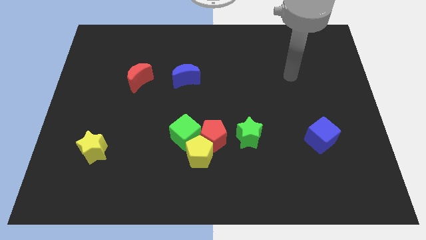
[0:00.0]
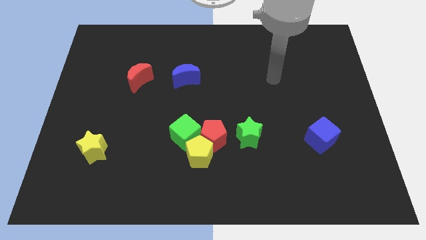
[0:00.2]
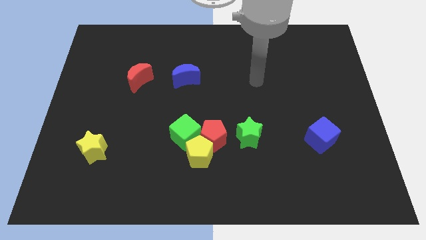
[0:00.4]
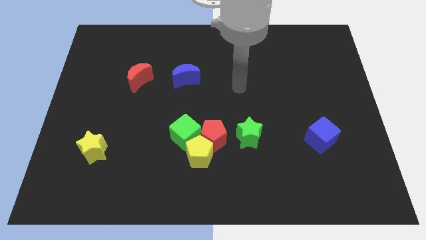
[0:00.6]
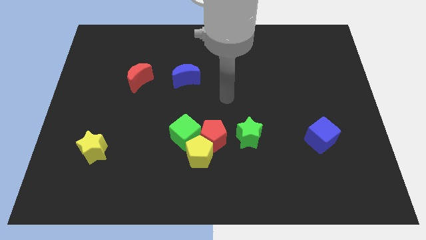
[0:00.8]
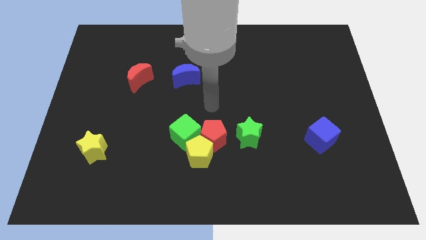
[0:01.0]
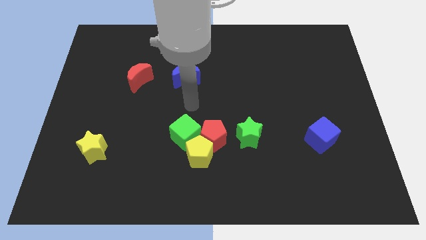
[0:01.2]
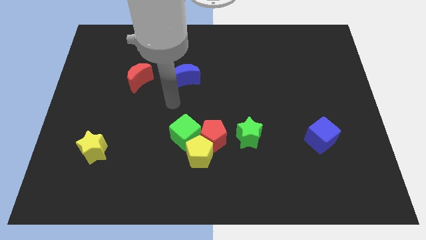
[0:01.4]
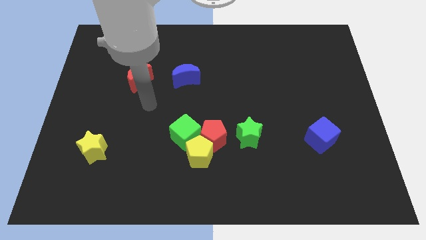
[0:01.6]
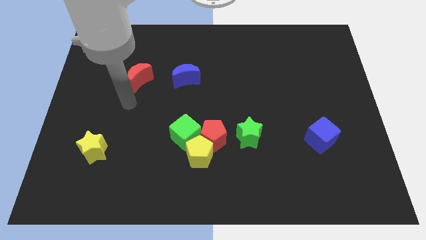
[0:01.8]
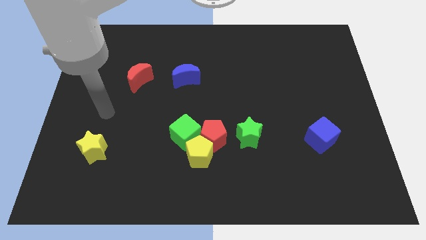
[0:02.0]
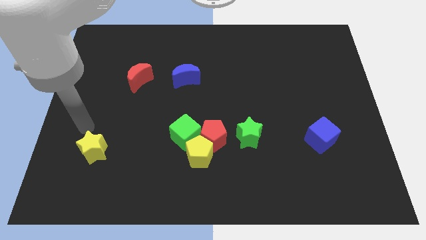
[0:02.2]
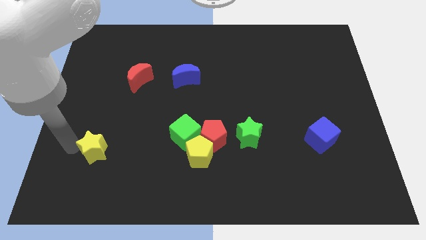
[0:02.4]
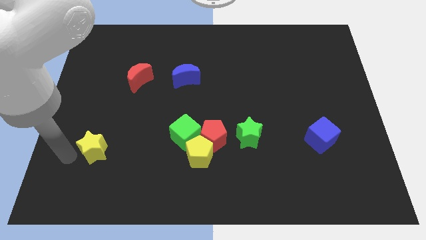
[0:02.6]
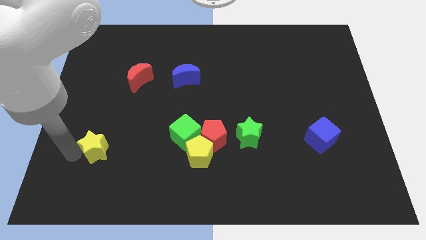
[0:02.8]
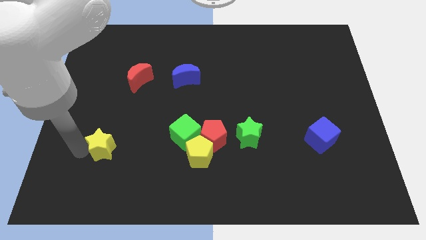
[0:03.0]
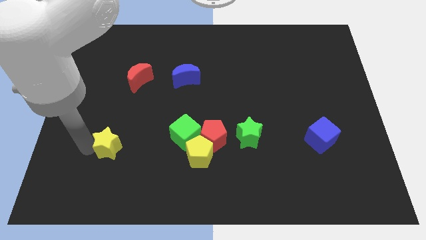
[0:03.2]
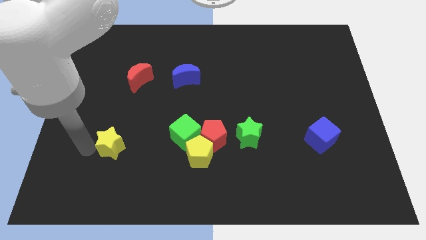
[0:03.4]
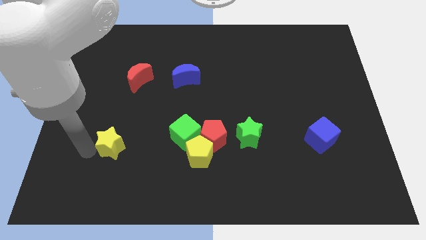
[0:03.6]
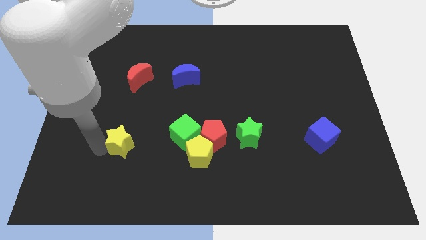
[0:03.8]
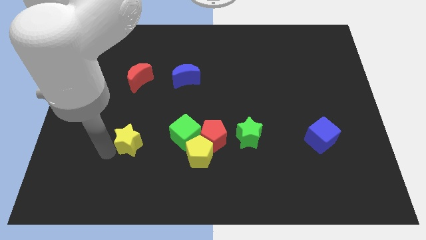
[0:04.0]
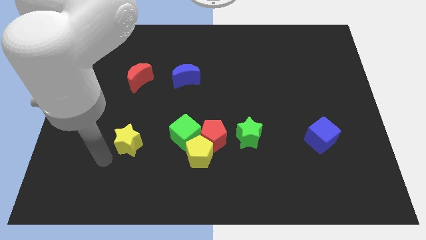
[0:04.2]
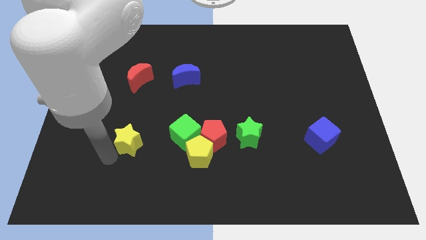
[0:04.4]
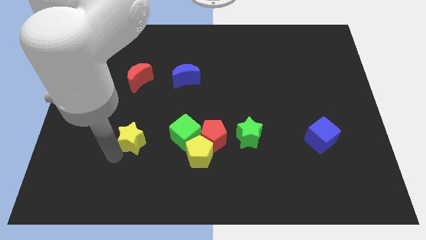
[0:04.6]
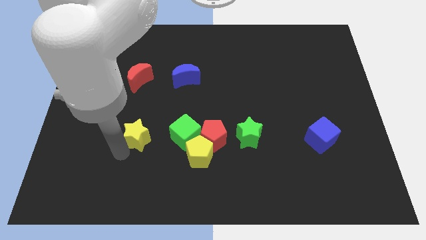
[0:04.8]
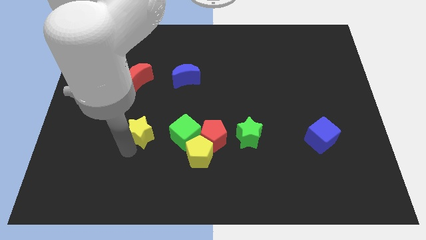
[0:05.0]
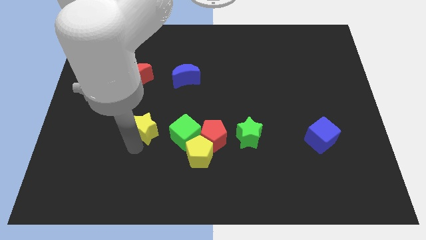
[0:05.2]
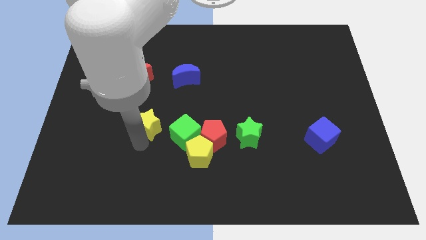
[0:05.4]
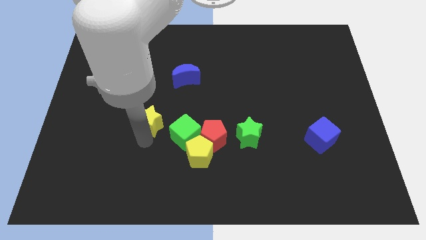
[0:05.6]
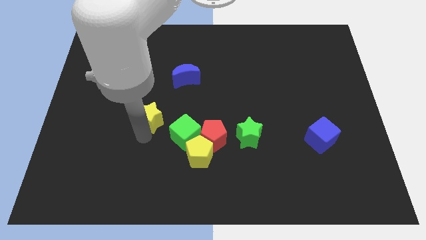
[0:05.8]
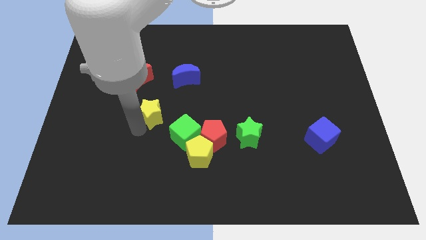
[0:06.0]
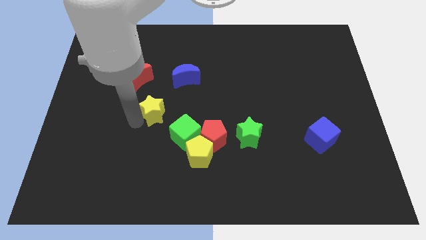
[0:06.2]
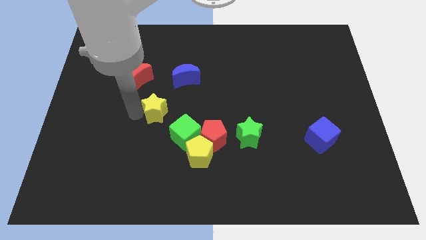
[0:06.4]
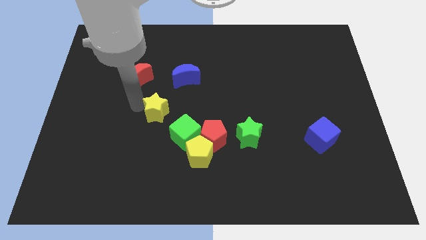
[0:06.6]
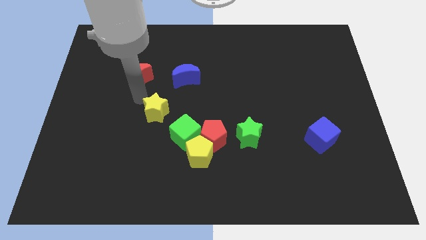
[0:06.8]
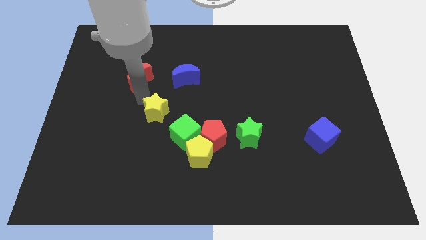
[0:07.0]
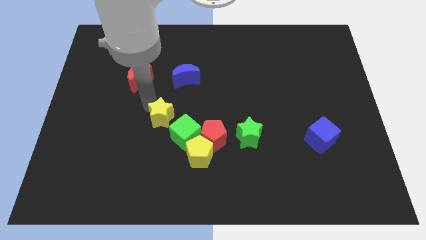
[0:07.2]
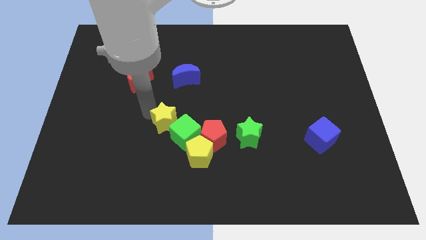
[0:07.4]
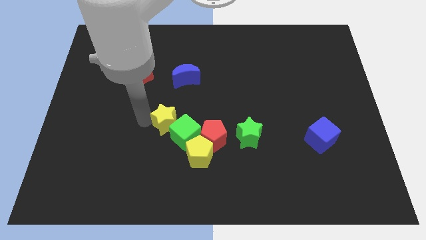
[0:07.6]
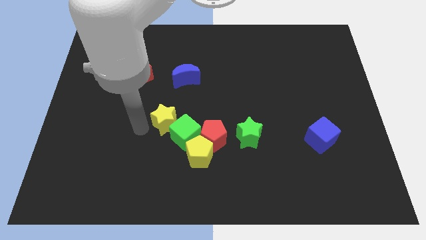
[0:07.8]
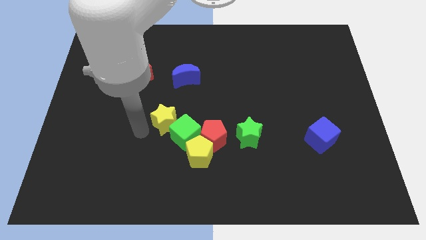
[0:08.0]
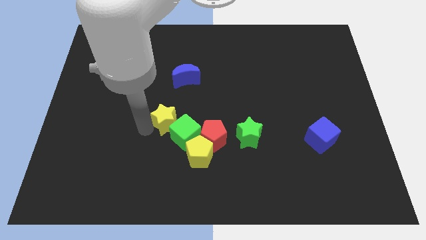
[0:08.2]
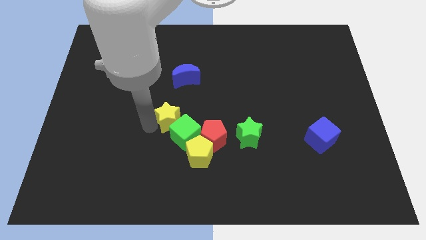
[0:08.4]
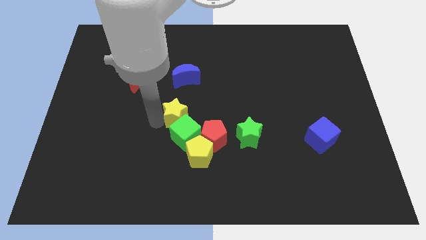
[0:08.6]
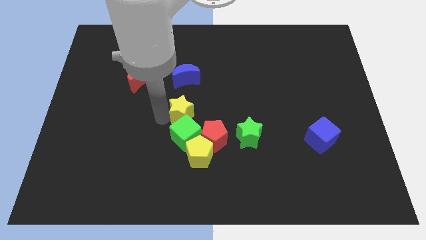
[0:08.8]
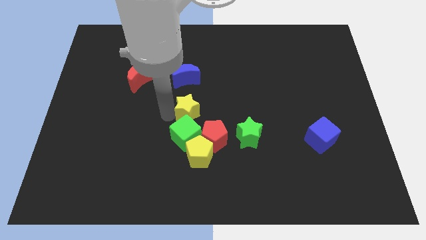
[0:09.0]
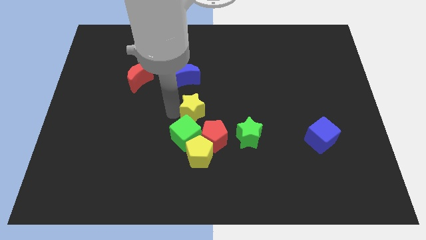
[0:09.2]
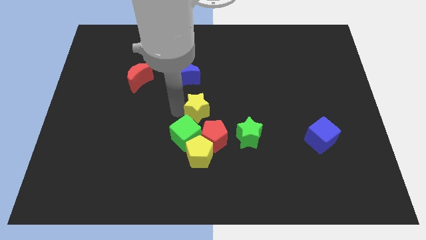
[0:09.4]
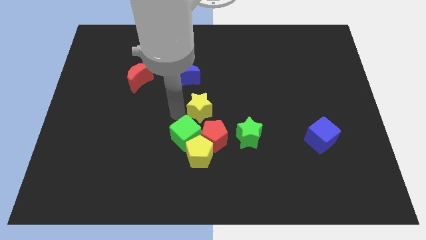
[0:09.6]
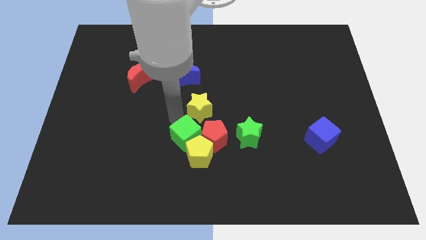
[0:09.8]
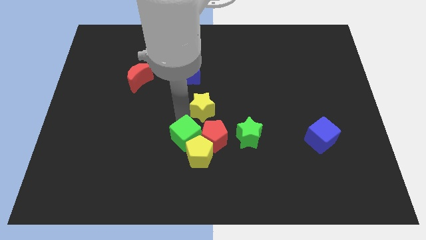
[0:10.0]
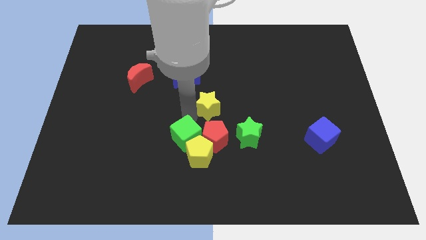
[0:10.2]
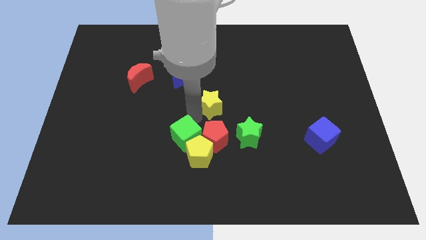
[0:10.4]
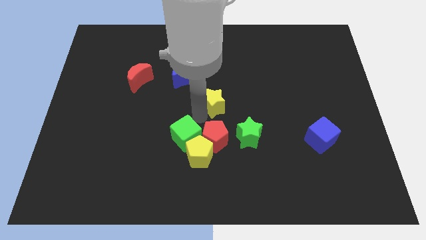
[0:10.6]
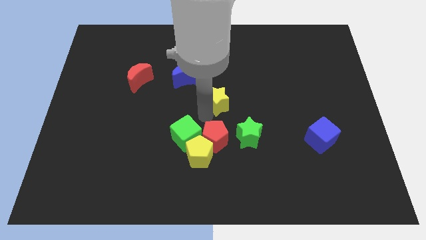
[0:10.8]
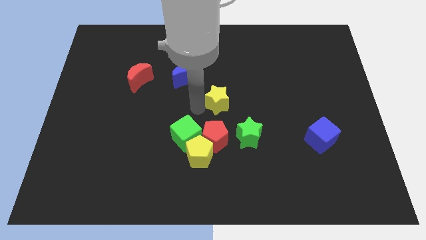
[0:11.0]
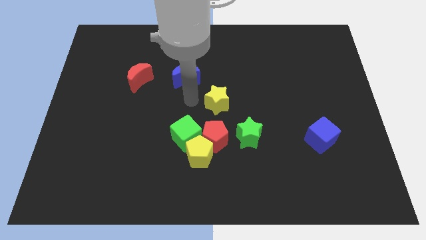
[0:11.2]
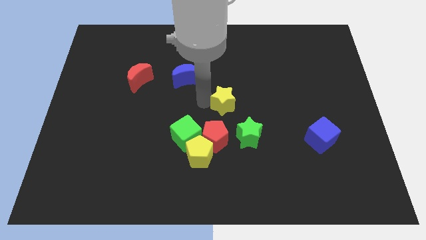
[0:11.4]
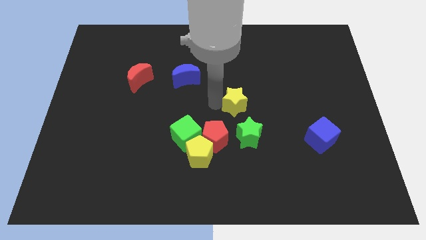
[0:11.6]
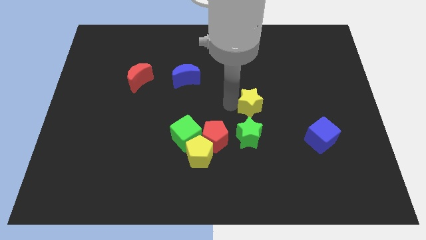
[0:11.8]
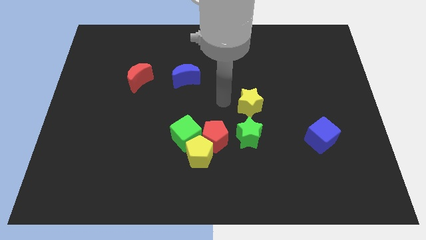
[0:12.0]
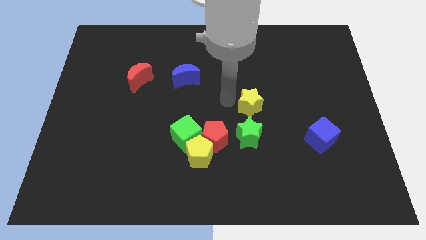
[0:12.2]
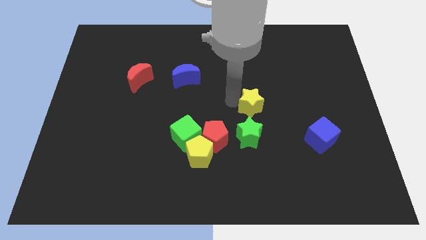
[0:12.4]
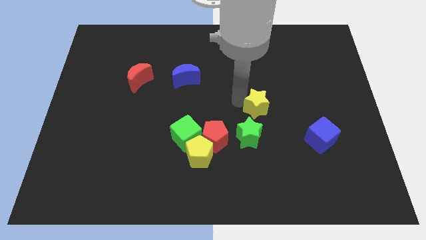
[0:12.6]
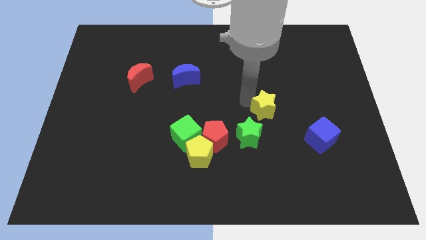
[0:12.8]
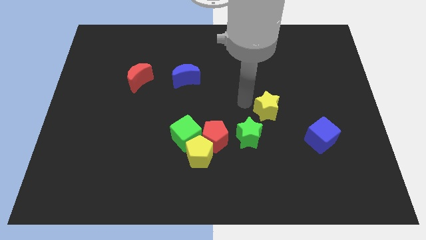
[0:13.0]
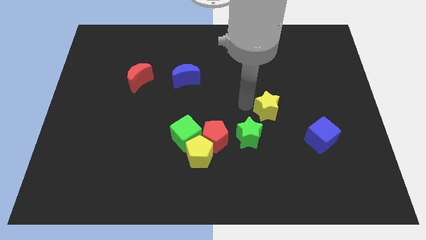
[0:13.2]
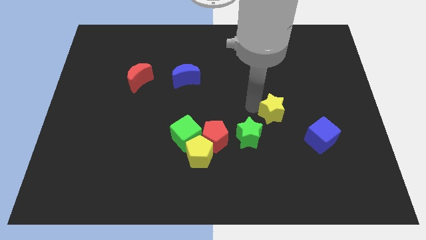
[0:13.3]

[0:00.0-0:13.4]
move the yellow star to the top left of the blue cube
